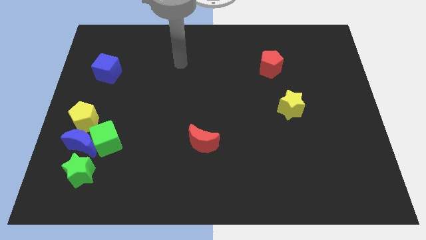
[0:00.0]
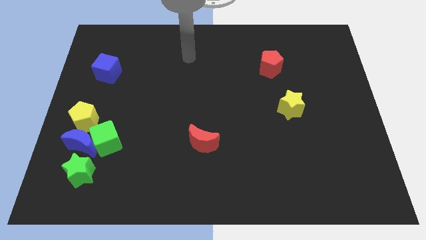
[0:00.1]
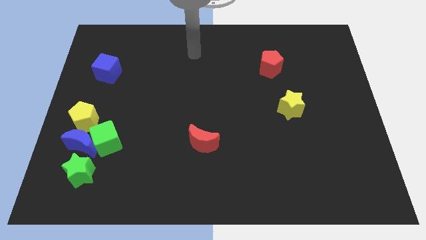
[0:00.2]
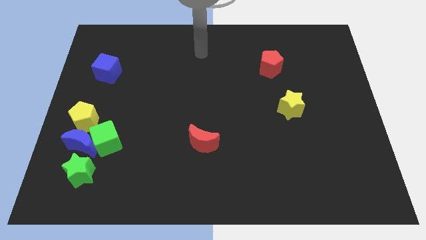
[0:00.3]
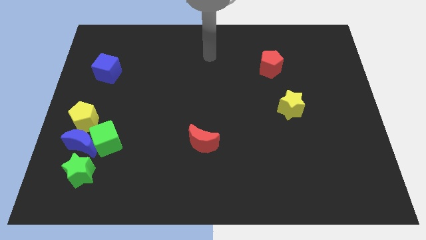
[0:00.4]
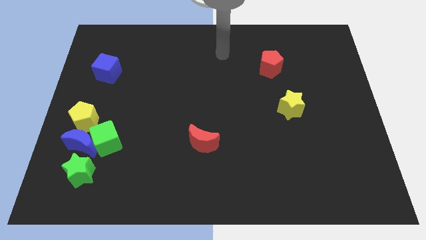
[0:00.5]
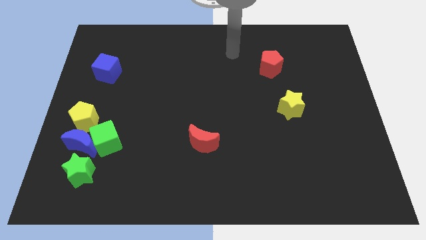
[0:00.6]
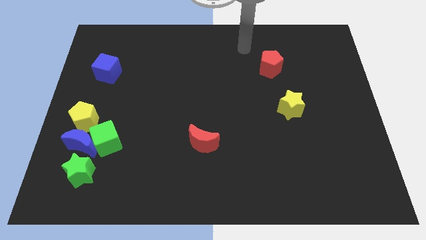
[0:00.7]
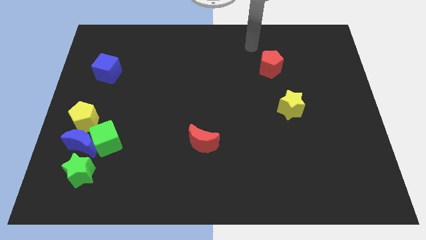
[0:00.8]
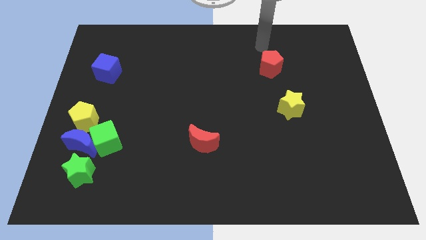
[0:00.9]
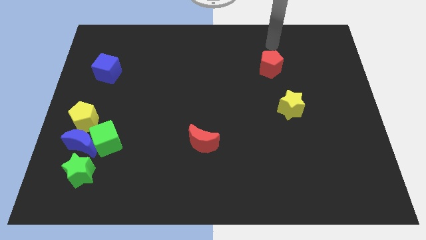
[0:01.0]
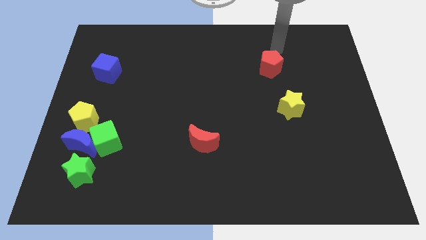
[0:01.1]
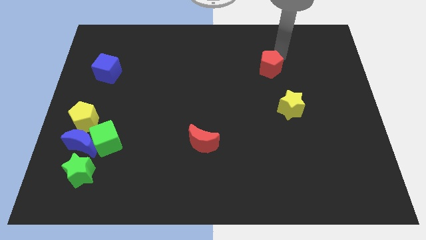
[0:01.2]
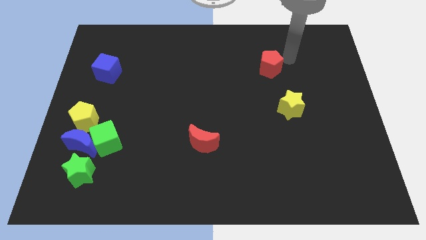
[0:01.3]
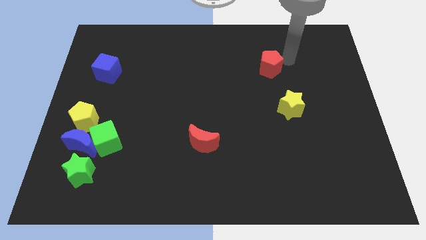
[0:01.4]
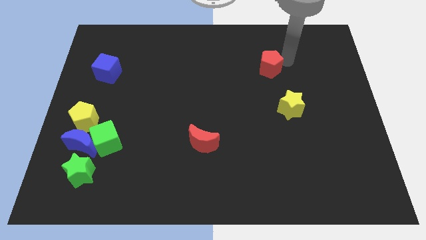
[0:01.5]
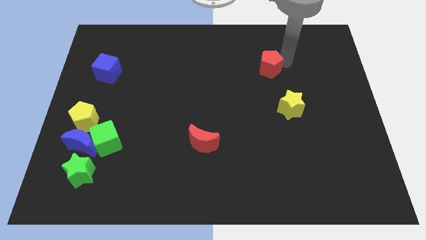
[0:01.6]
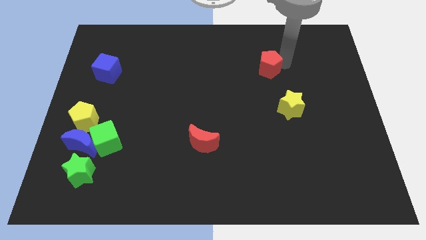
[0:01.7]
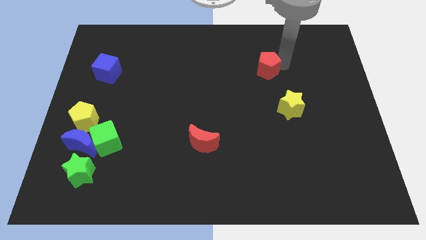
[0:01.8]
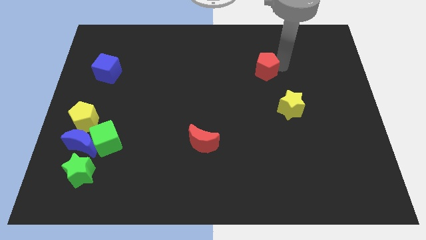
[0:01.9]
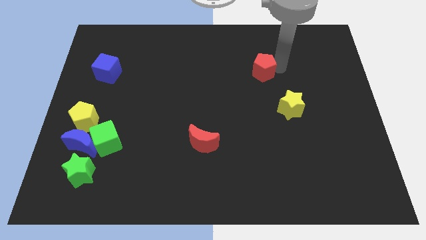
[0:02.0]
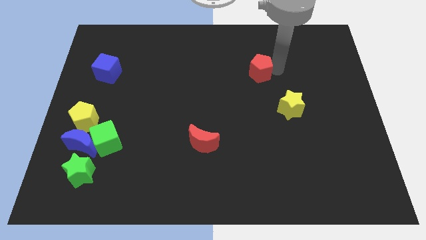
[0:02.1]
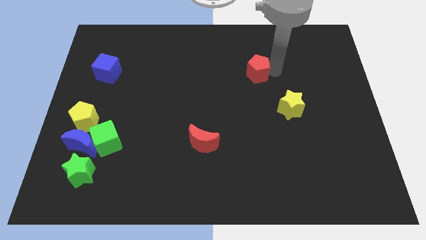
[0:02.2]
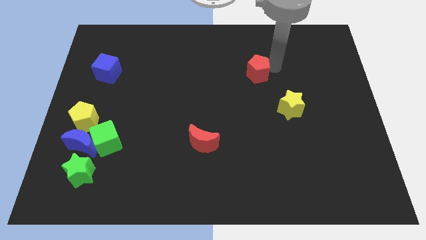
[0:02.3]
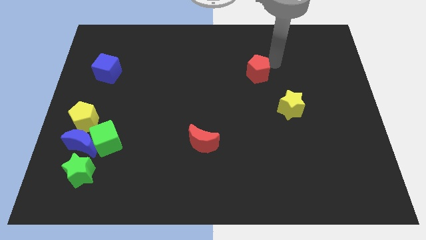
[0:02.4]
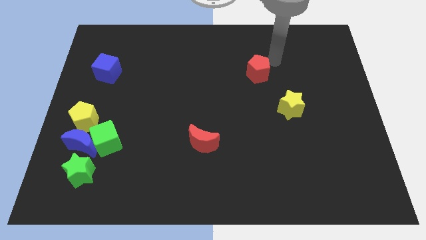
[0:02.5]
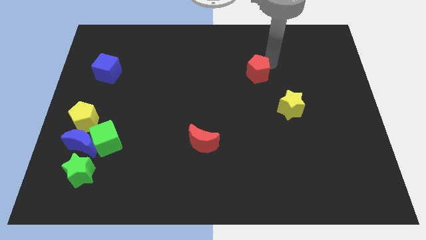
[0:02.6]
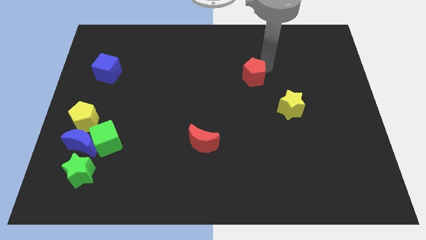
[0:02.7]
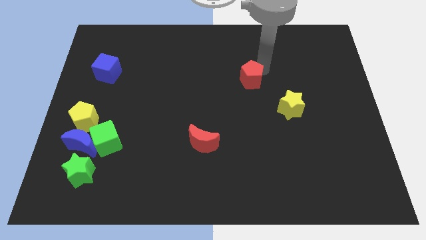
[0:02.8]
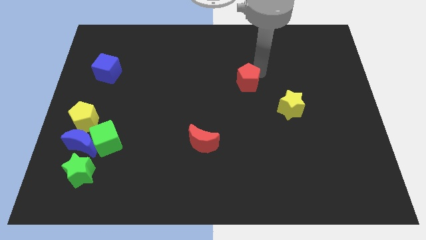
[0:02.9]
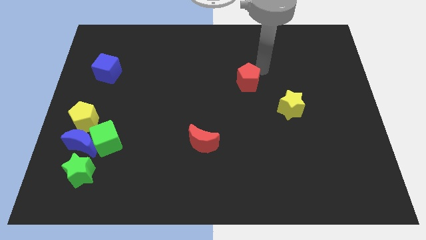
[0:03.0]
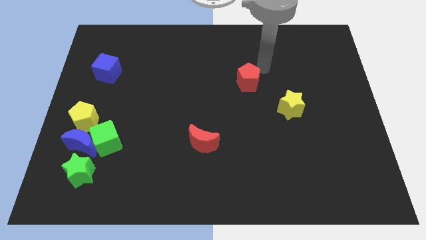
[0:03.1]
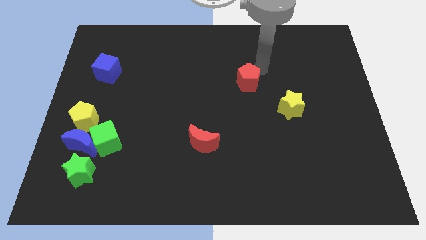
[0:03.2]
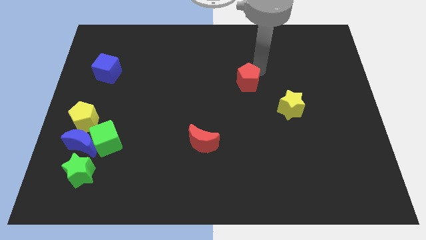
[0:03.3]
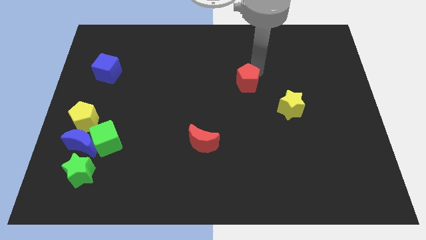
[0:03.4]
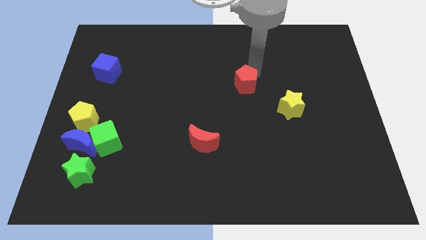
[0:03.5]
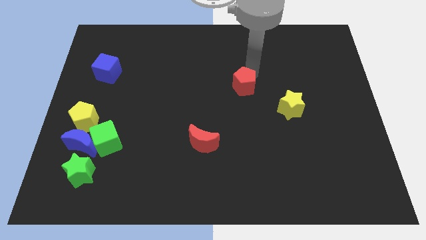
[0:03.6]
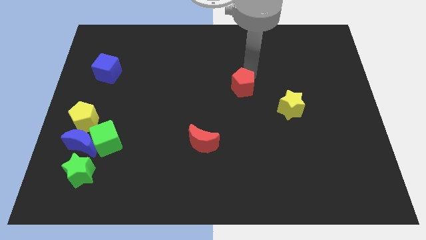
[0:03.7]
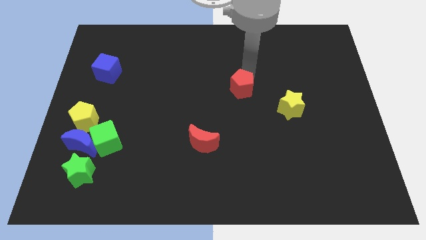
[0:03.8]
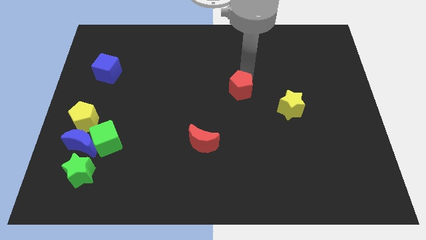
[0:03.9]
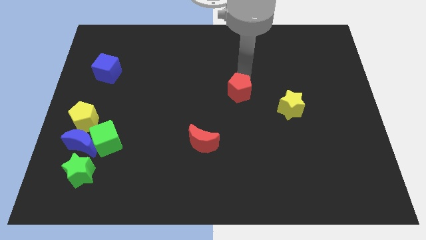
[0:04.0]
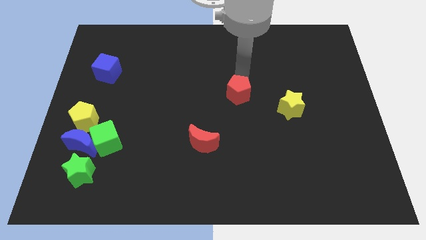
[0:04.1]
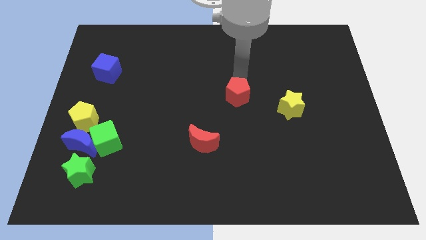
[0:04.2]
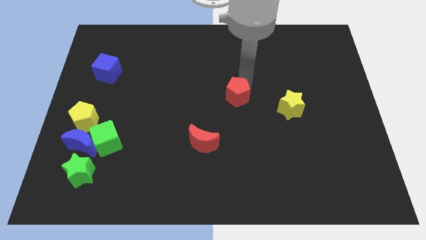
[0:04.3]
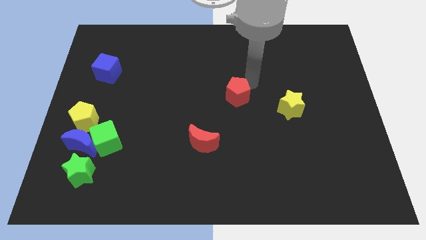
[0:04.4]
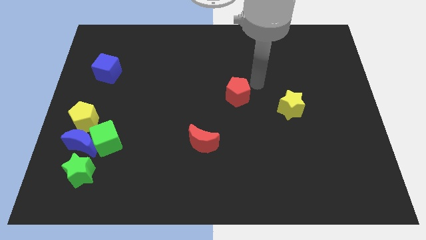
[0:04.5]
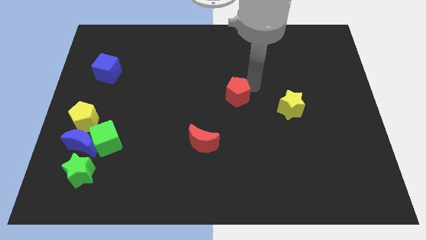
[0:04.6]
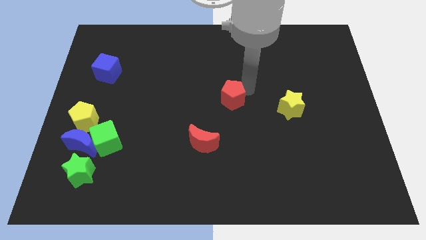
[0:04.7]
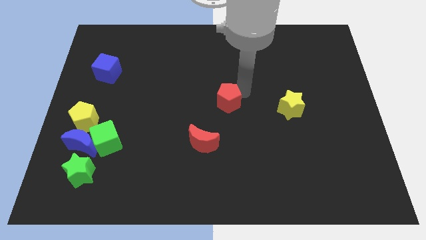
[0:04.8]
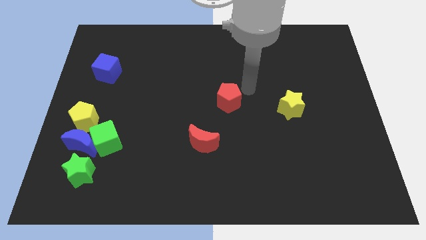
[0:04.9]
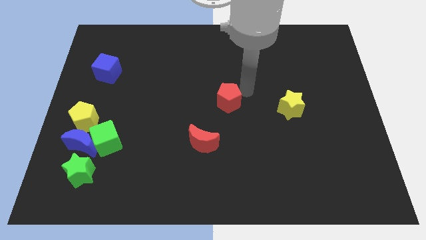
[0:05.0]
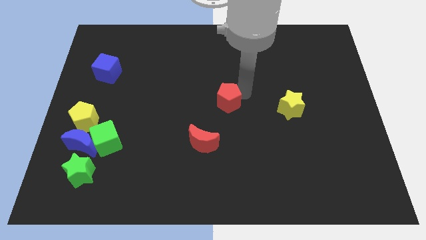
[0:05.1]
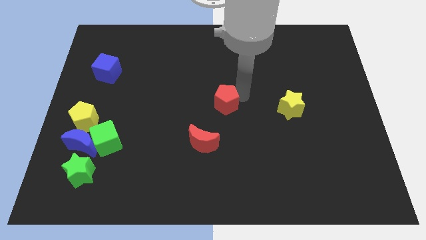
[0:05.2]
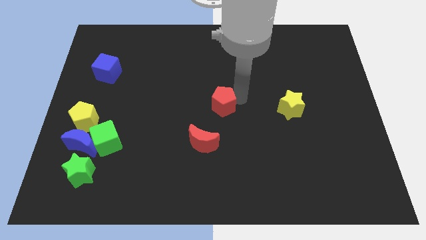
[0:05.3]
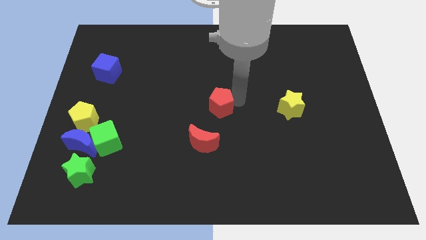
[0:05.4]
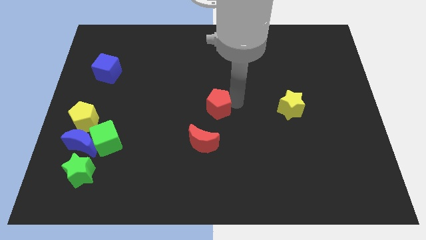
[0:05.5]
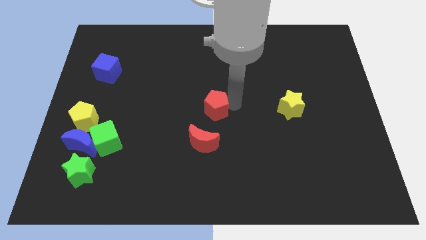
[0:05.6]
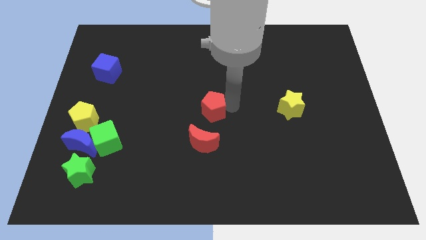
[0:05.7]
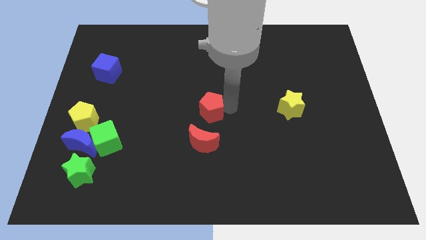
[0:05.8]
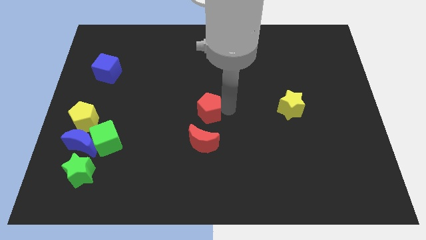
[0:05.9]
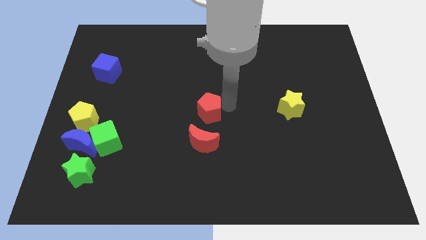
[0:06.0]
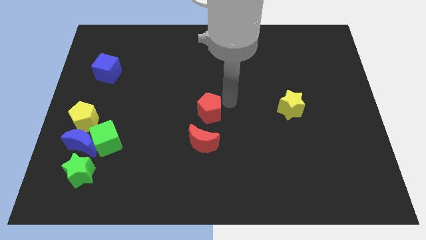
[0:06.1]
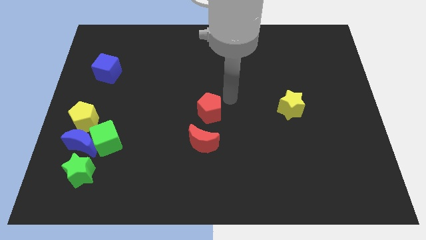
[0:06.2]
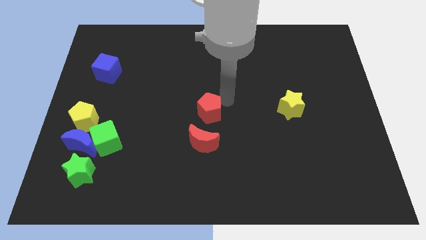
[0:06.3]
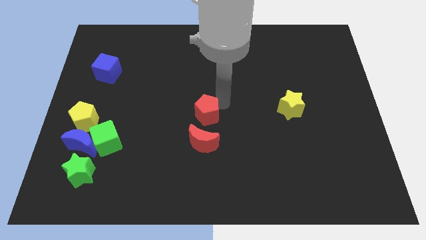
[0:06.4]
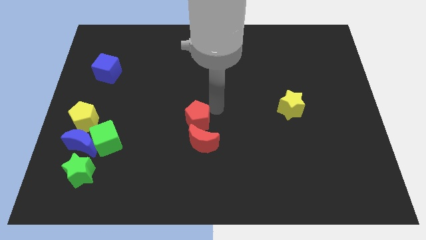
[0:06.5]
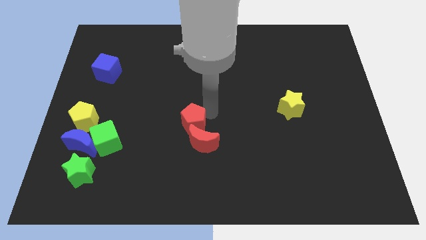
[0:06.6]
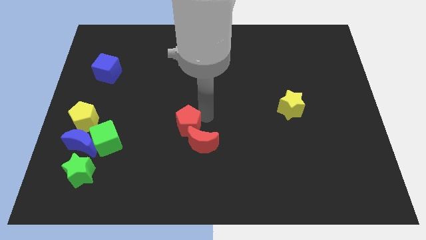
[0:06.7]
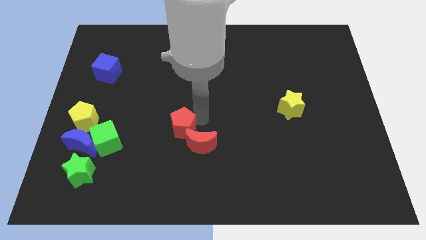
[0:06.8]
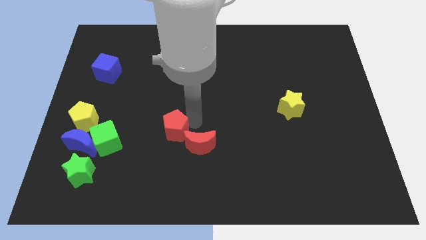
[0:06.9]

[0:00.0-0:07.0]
slide the red pentagon just right of the green cube
